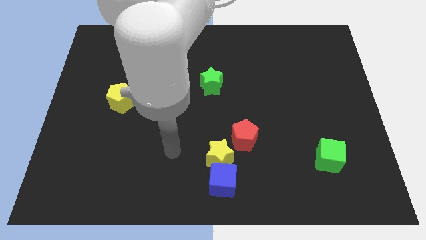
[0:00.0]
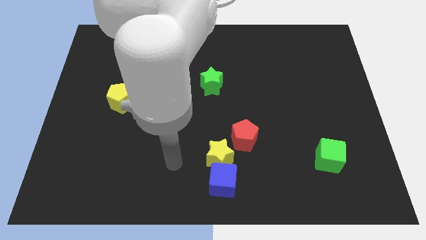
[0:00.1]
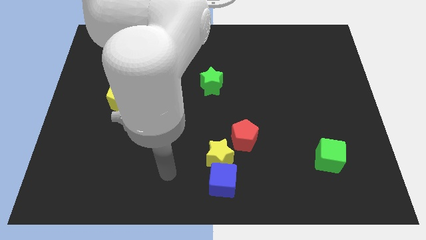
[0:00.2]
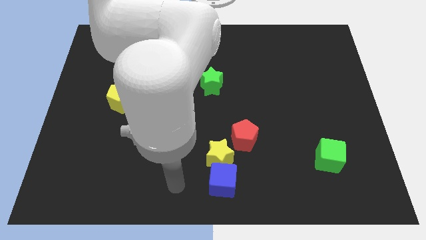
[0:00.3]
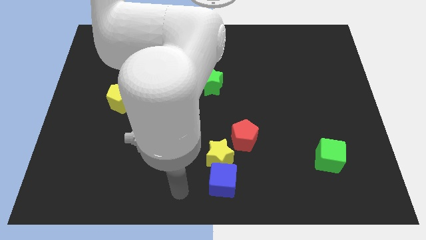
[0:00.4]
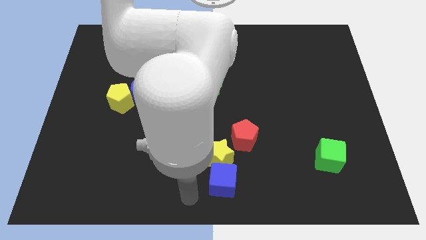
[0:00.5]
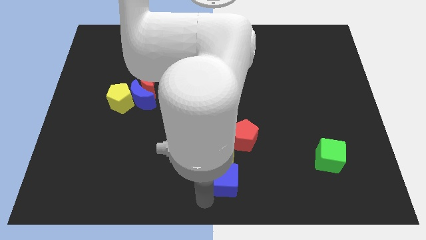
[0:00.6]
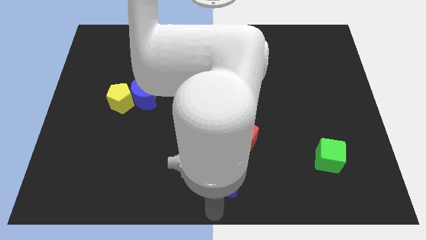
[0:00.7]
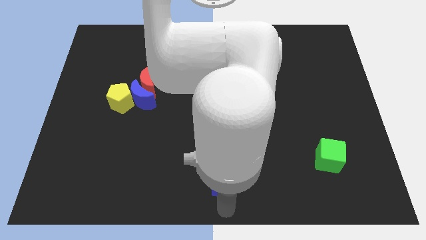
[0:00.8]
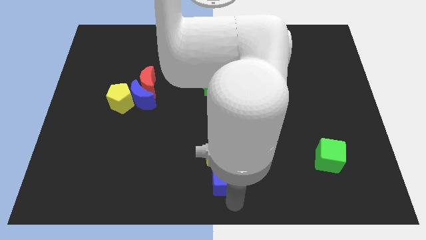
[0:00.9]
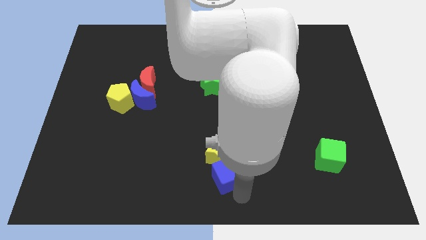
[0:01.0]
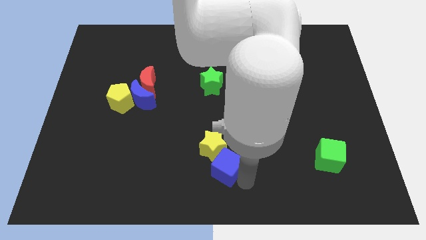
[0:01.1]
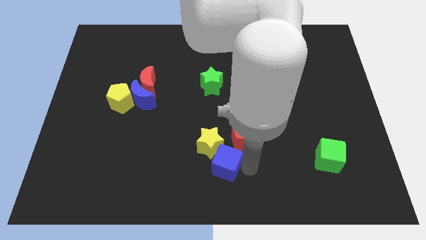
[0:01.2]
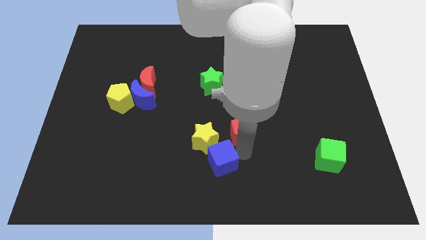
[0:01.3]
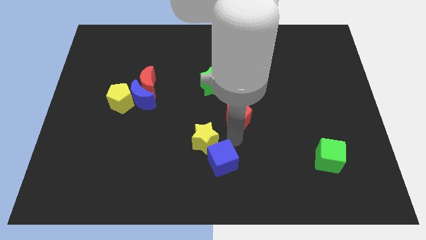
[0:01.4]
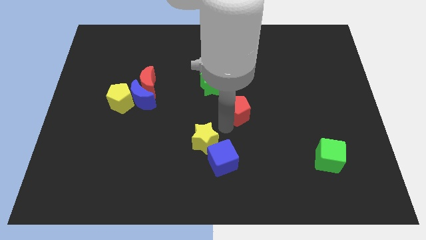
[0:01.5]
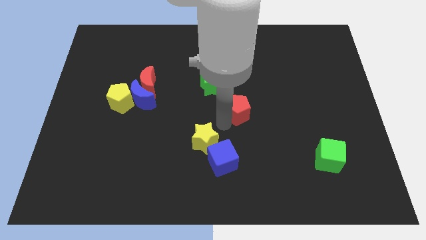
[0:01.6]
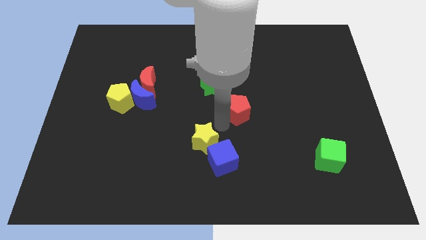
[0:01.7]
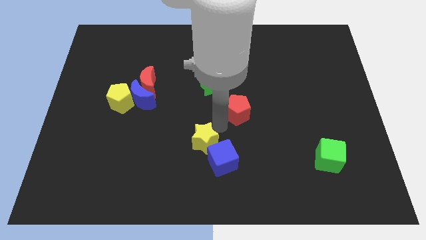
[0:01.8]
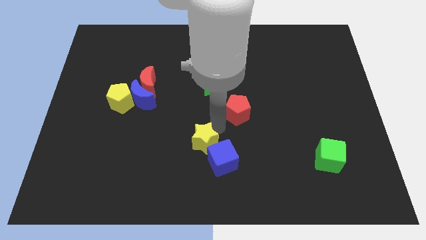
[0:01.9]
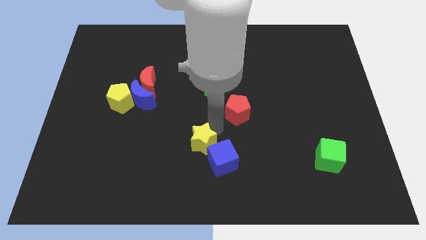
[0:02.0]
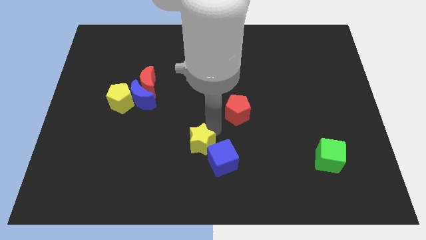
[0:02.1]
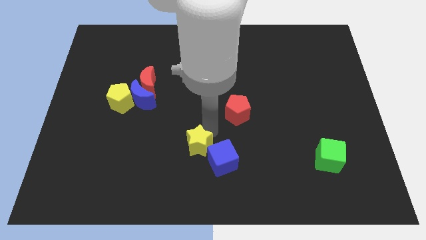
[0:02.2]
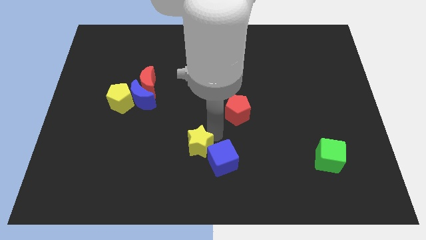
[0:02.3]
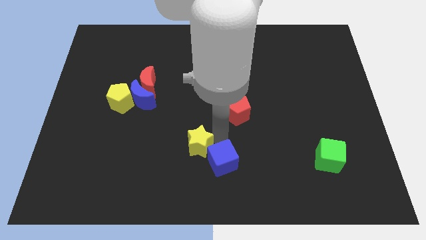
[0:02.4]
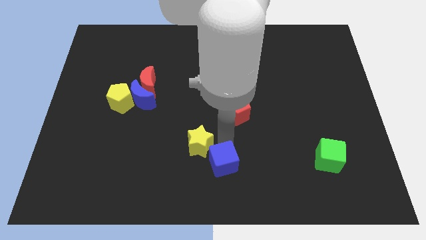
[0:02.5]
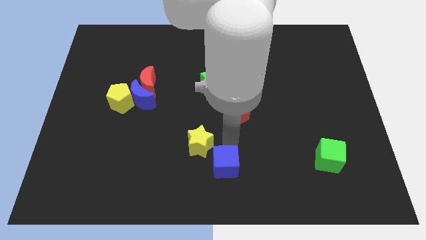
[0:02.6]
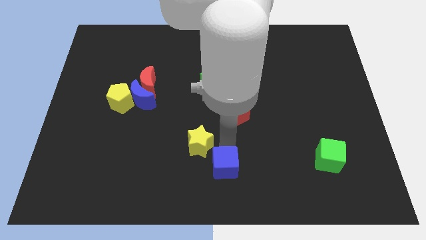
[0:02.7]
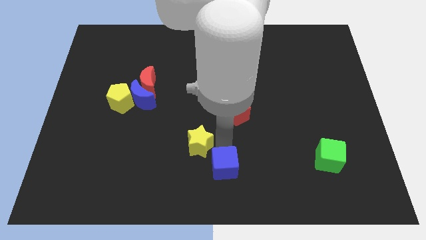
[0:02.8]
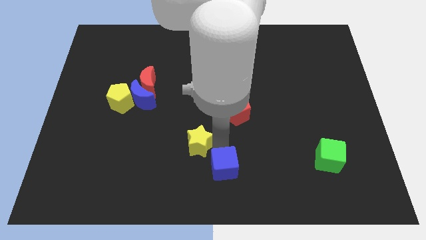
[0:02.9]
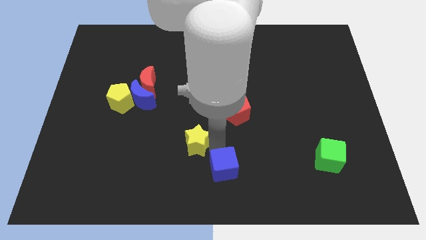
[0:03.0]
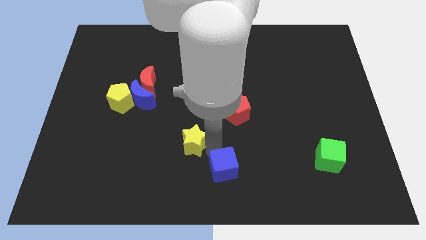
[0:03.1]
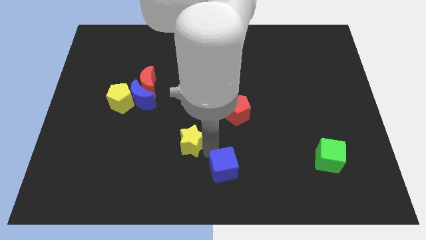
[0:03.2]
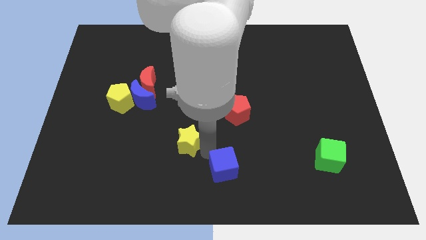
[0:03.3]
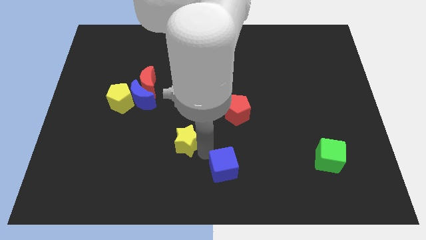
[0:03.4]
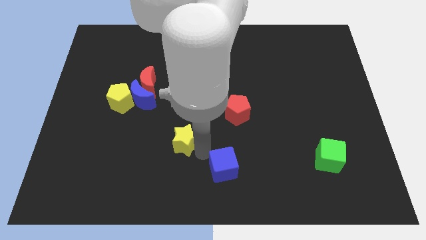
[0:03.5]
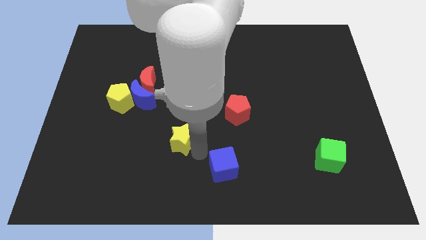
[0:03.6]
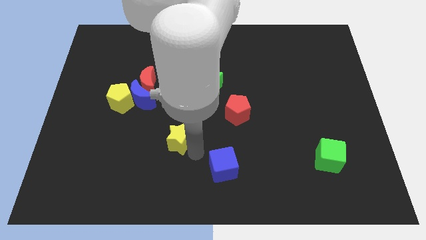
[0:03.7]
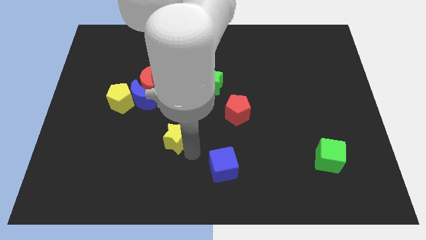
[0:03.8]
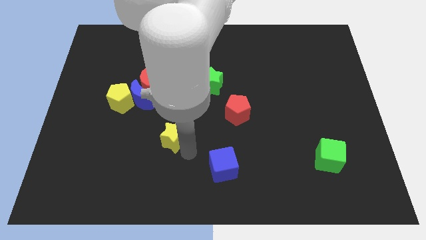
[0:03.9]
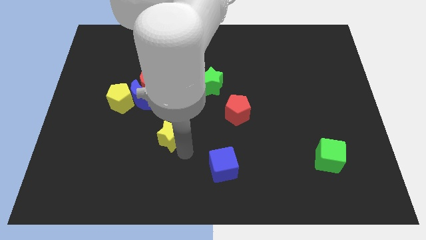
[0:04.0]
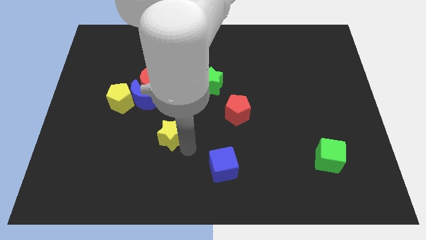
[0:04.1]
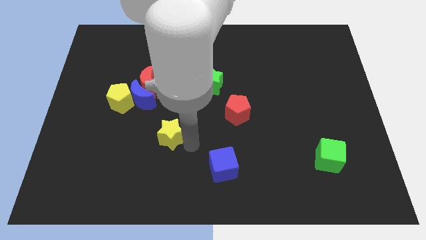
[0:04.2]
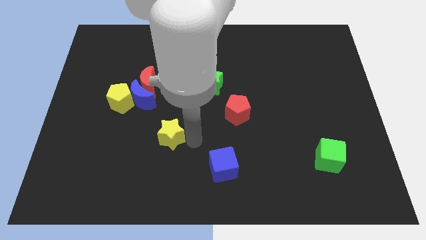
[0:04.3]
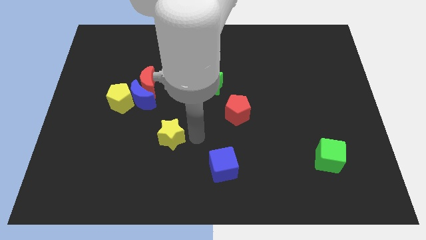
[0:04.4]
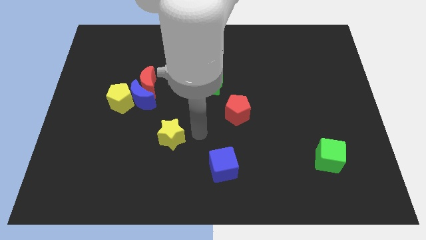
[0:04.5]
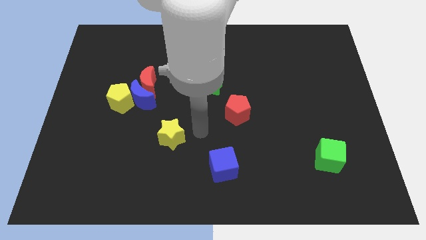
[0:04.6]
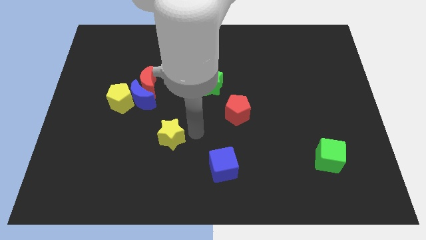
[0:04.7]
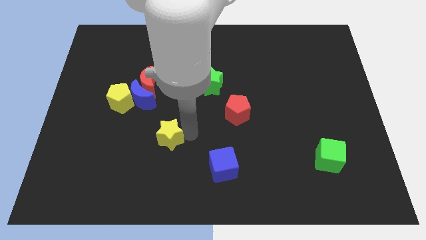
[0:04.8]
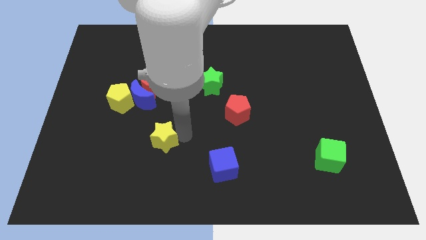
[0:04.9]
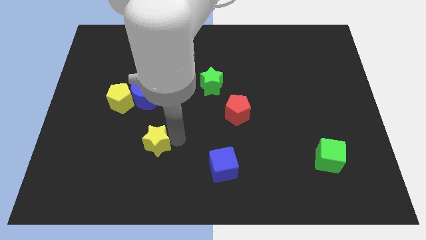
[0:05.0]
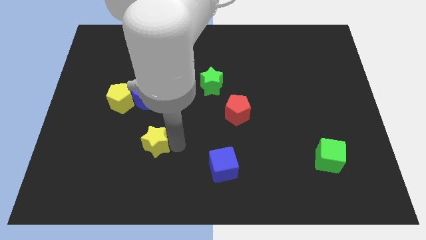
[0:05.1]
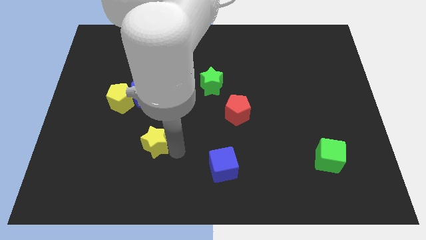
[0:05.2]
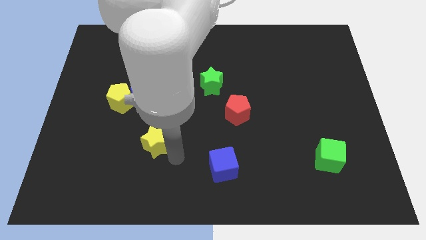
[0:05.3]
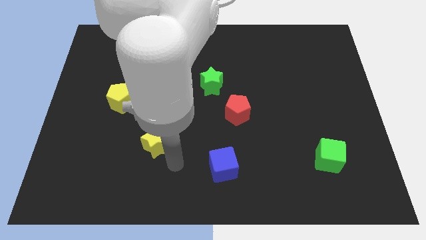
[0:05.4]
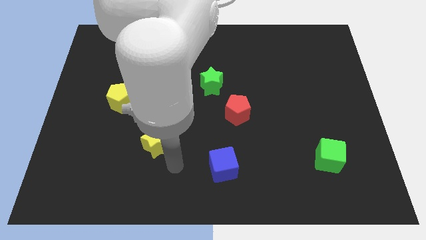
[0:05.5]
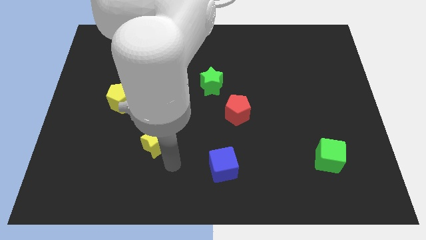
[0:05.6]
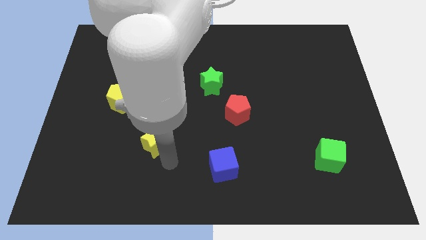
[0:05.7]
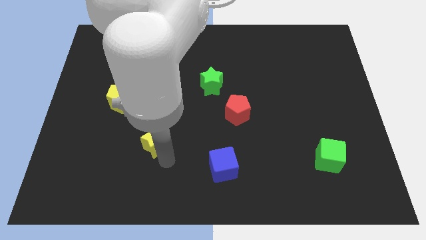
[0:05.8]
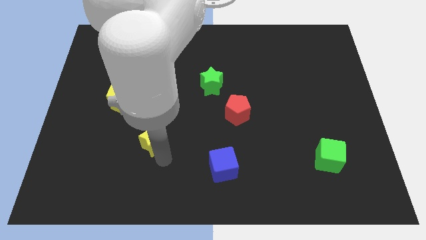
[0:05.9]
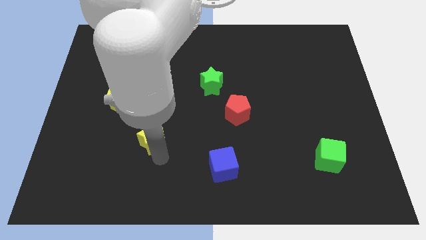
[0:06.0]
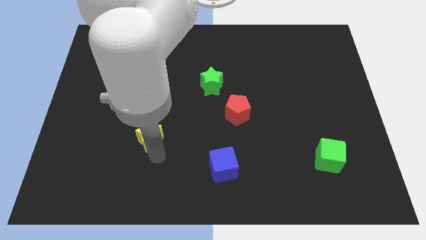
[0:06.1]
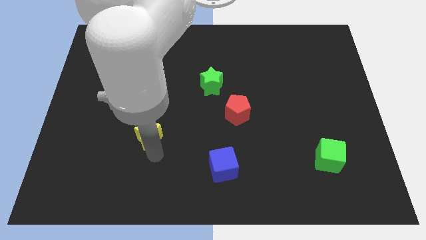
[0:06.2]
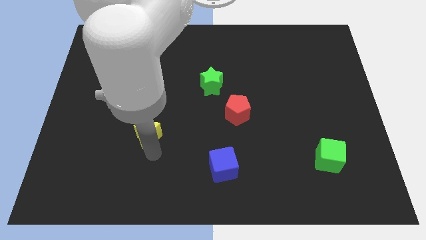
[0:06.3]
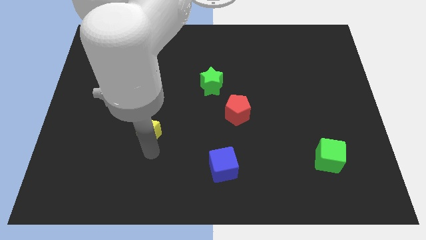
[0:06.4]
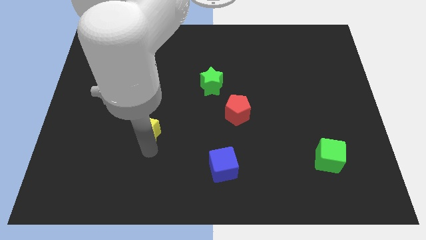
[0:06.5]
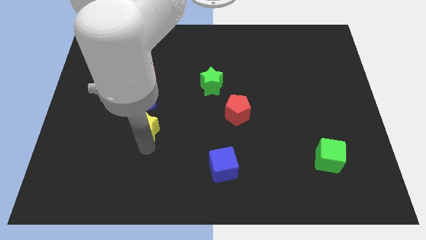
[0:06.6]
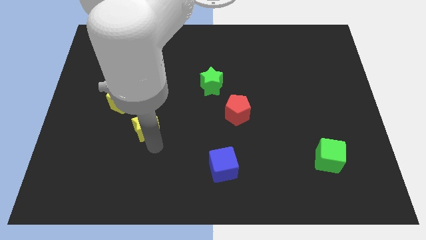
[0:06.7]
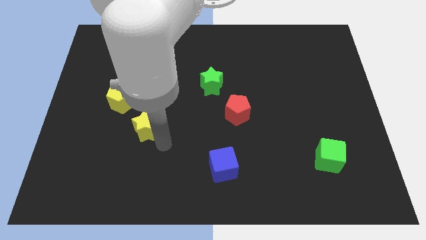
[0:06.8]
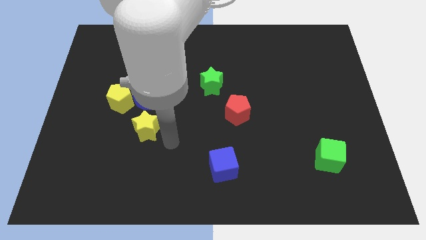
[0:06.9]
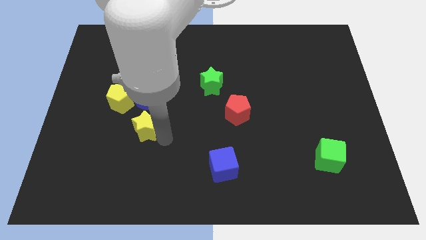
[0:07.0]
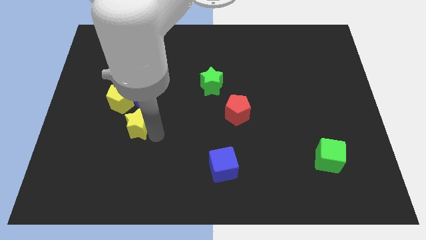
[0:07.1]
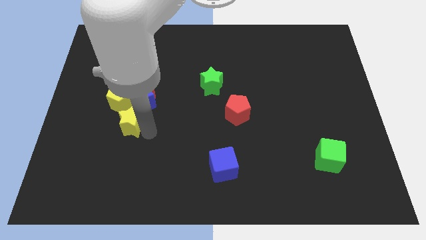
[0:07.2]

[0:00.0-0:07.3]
push the yellow star to the bottom left of the blue moon

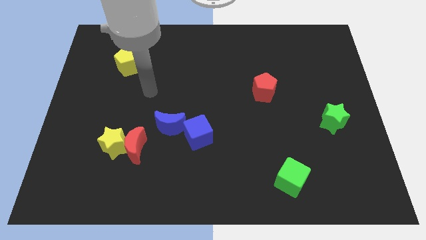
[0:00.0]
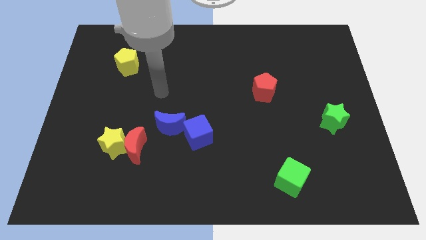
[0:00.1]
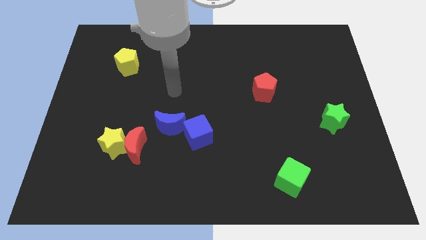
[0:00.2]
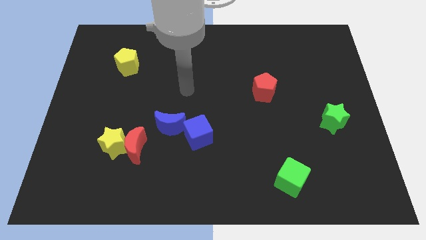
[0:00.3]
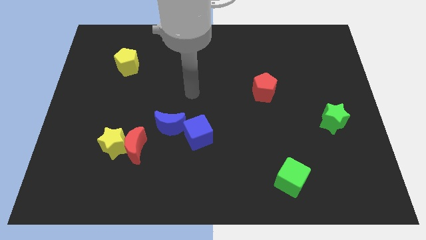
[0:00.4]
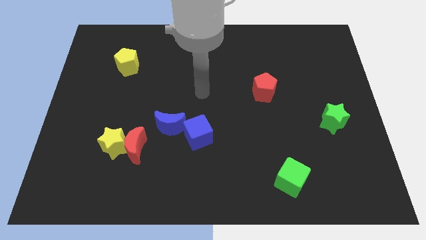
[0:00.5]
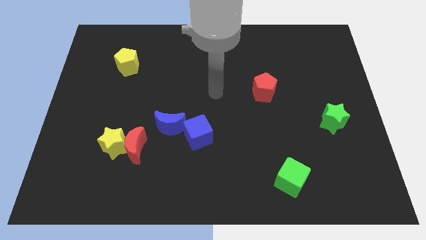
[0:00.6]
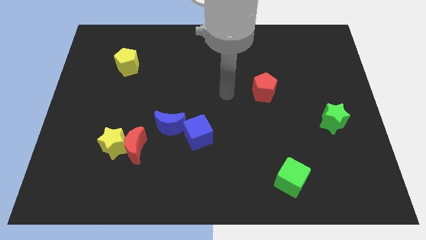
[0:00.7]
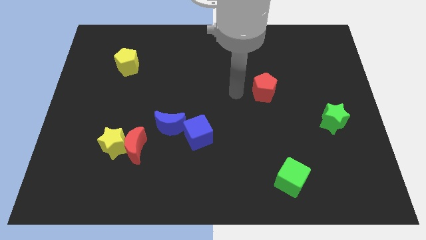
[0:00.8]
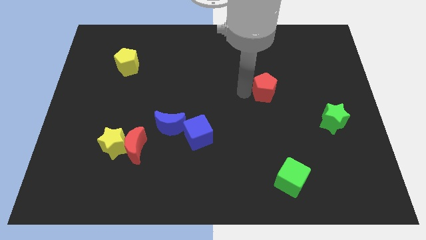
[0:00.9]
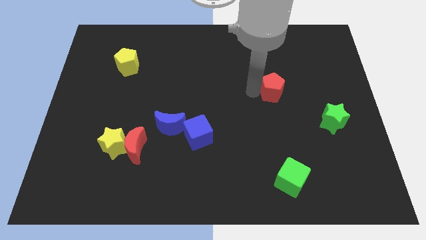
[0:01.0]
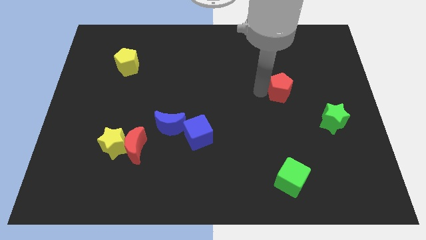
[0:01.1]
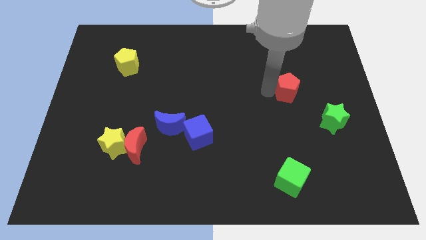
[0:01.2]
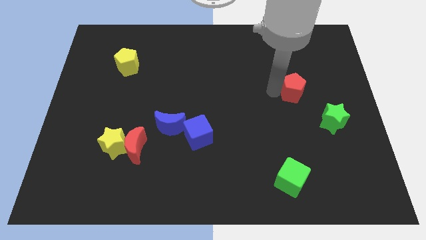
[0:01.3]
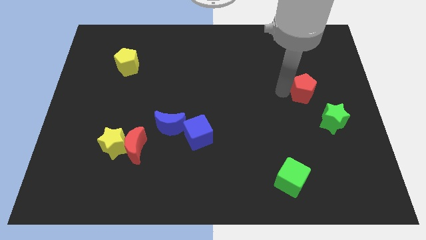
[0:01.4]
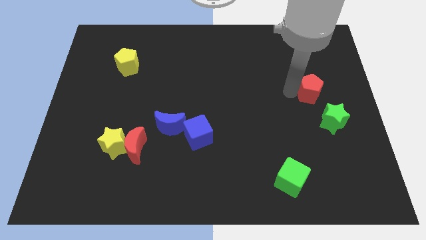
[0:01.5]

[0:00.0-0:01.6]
put the red pentagon to the top side of the green star
